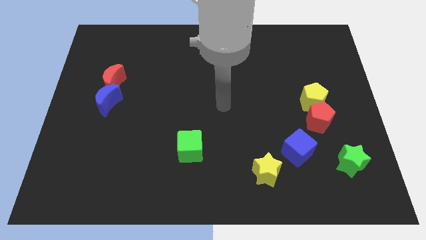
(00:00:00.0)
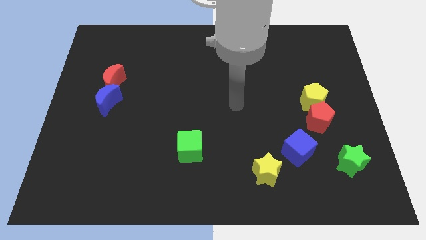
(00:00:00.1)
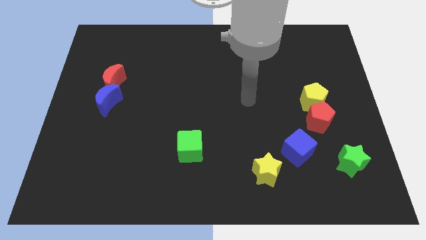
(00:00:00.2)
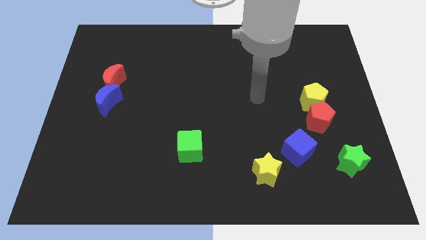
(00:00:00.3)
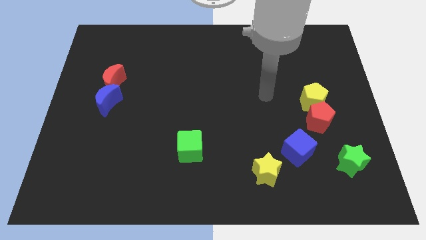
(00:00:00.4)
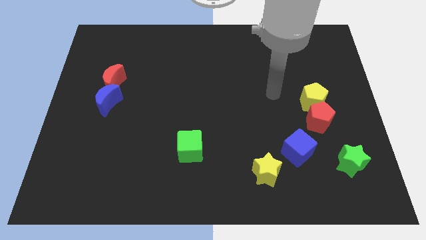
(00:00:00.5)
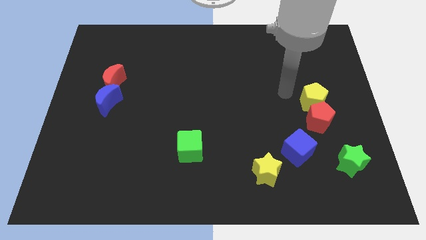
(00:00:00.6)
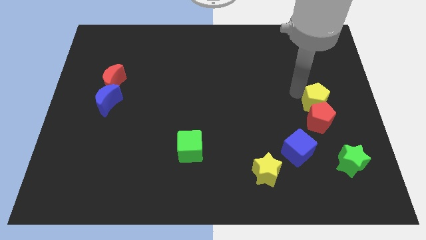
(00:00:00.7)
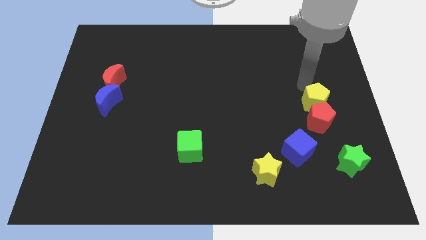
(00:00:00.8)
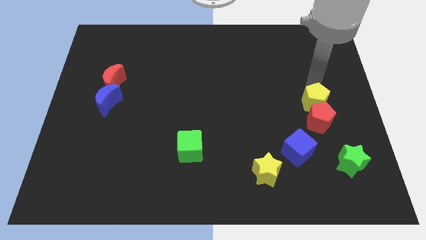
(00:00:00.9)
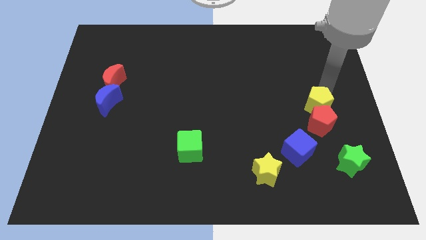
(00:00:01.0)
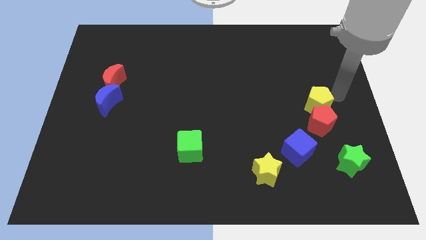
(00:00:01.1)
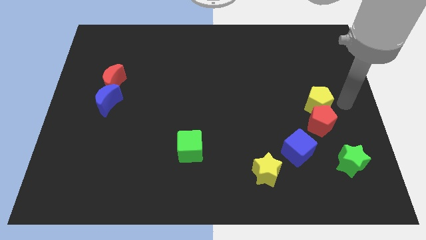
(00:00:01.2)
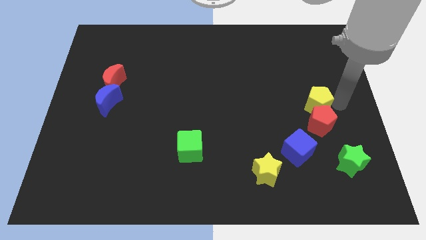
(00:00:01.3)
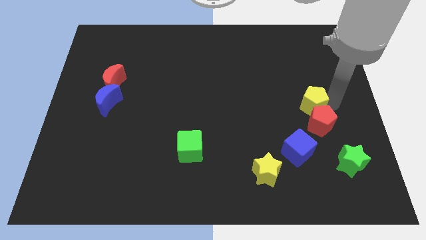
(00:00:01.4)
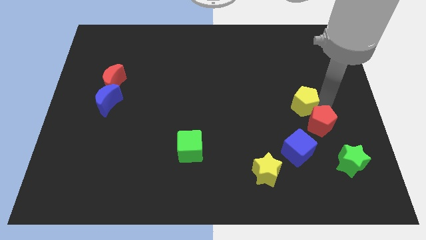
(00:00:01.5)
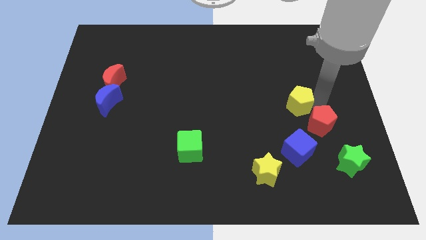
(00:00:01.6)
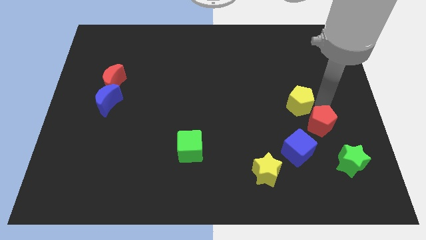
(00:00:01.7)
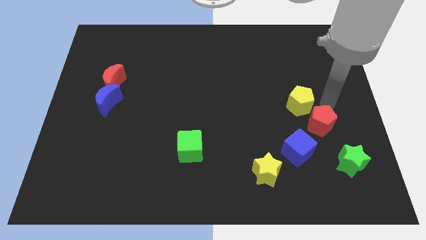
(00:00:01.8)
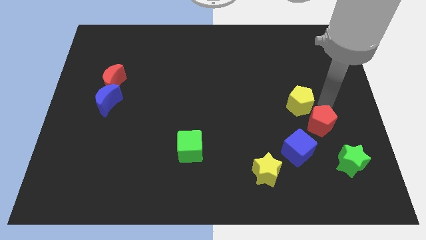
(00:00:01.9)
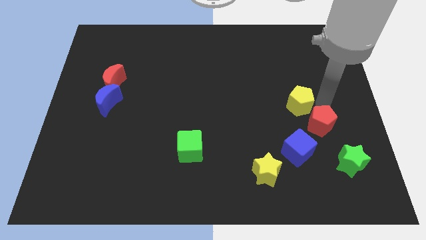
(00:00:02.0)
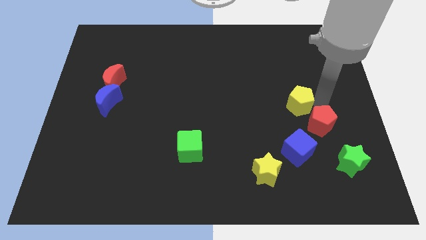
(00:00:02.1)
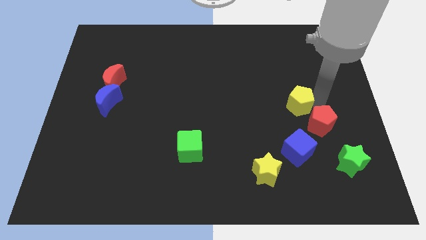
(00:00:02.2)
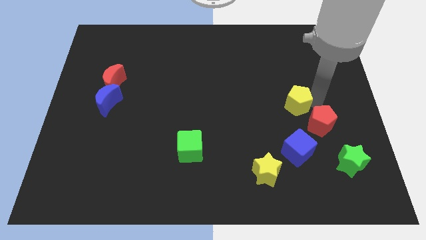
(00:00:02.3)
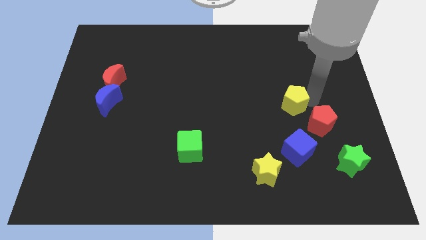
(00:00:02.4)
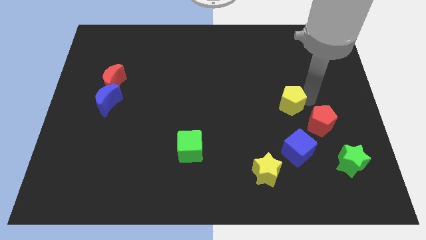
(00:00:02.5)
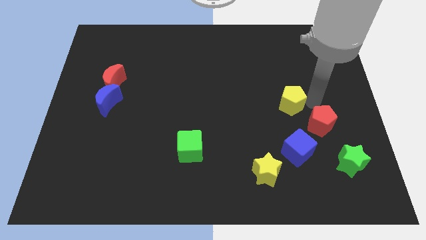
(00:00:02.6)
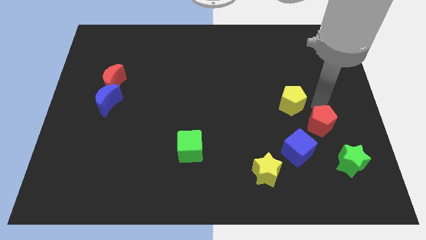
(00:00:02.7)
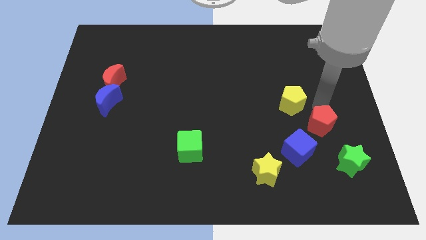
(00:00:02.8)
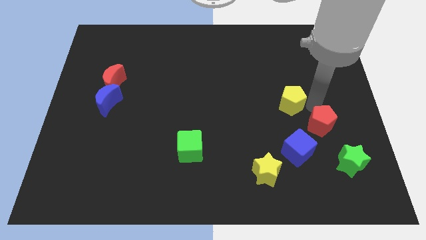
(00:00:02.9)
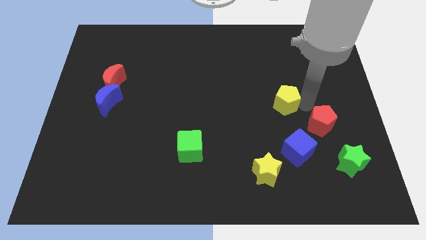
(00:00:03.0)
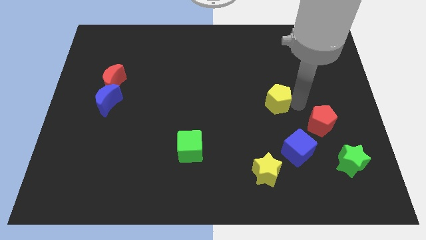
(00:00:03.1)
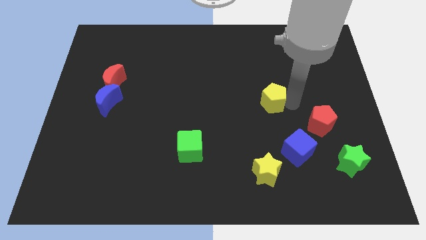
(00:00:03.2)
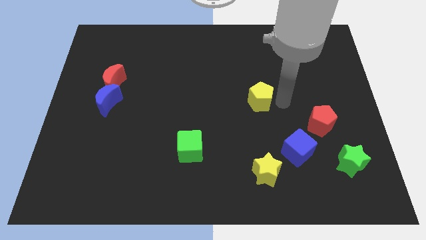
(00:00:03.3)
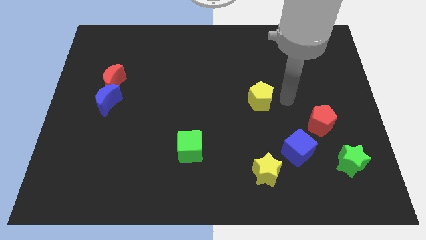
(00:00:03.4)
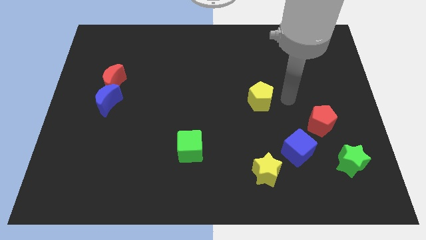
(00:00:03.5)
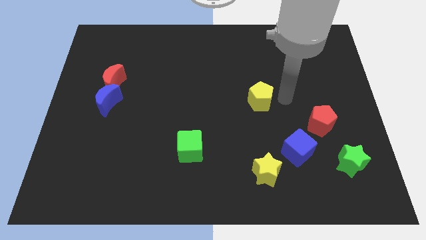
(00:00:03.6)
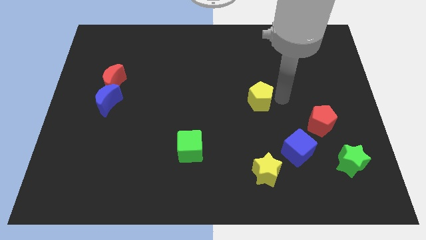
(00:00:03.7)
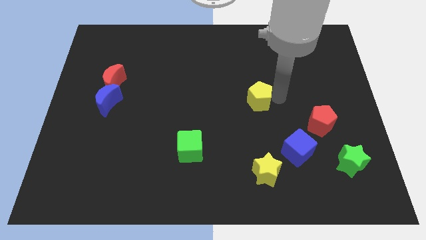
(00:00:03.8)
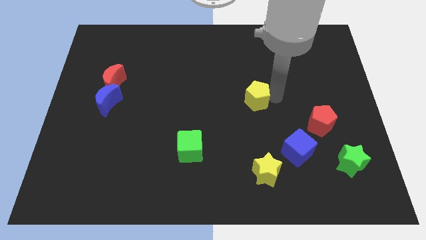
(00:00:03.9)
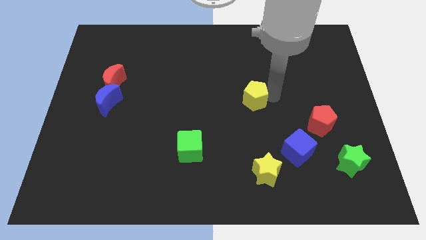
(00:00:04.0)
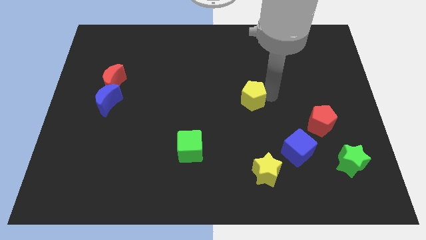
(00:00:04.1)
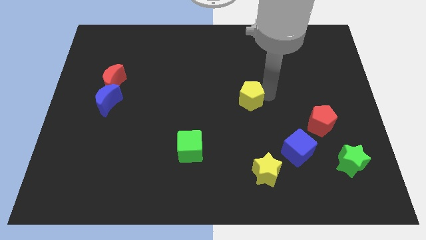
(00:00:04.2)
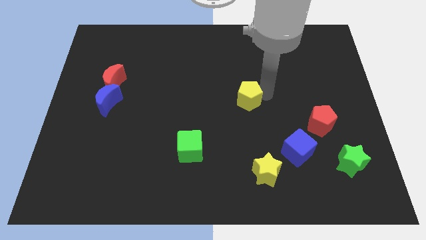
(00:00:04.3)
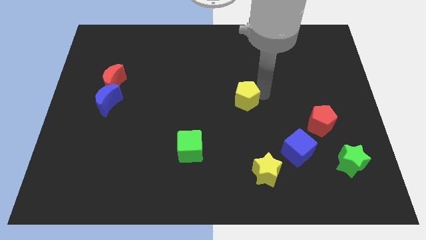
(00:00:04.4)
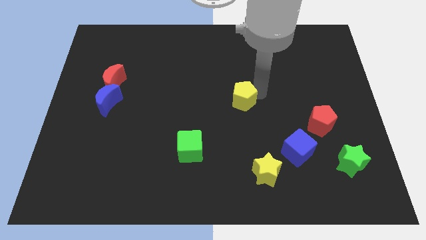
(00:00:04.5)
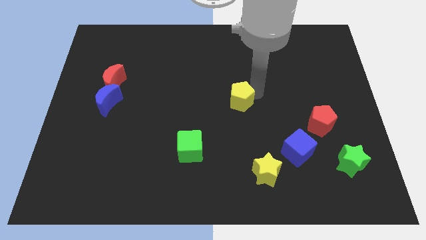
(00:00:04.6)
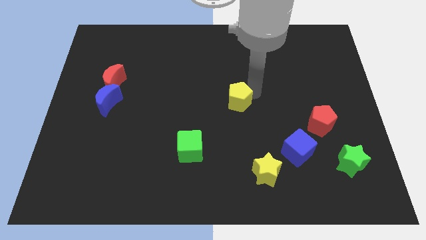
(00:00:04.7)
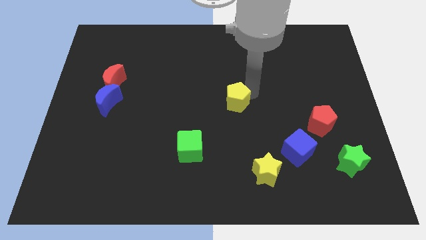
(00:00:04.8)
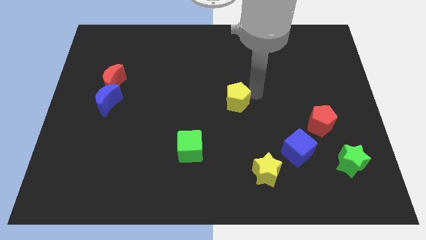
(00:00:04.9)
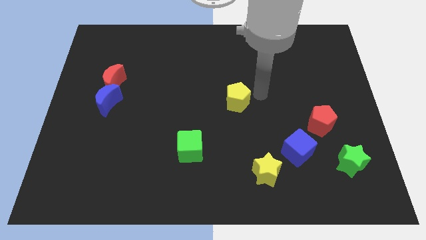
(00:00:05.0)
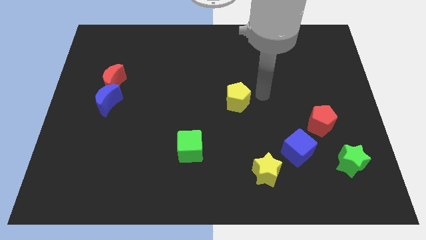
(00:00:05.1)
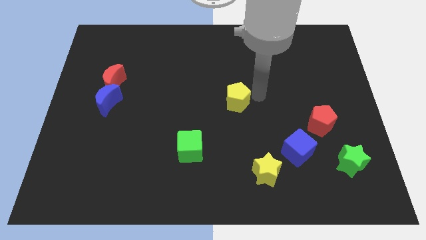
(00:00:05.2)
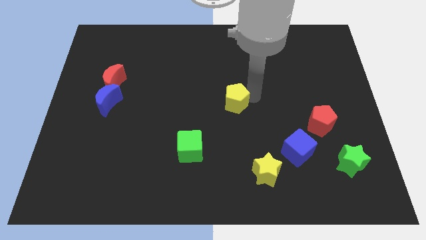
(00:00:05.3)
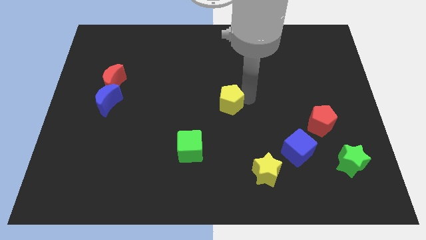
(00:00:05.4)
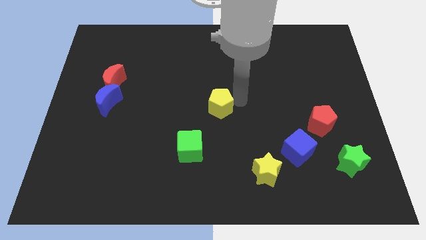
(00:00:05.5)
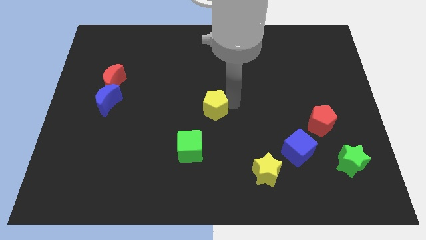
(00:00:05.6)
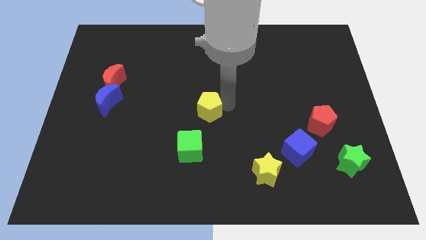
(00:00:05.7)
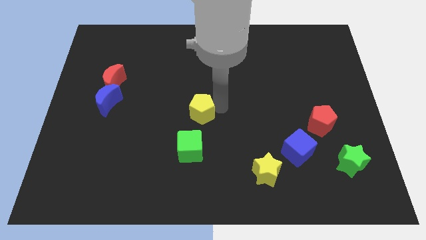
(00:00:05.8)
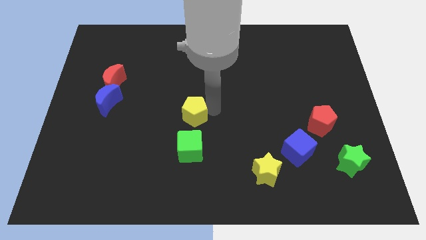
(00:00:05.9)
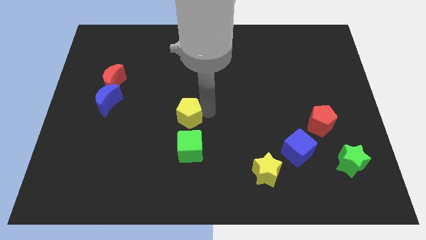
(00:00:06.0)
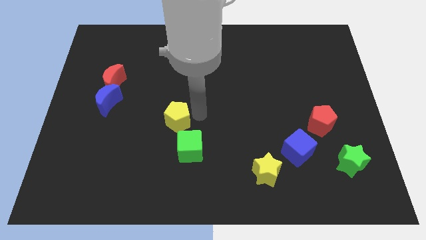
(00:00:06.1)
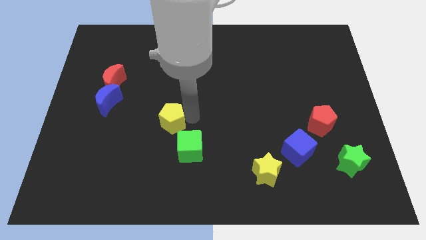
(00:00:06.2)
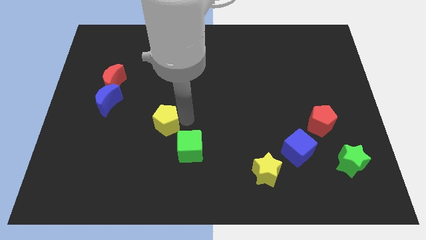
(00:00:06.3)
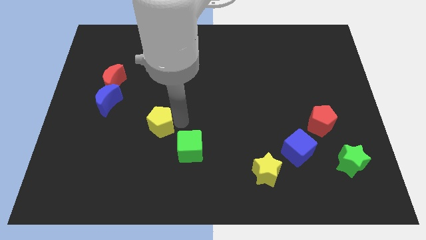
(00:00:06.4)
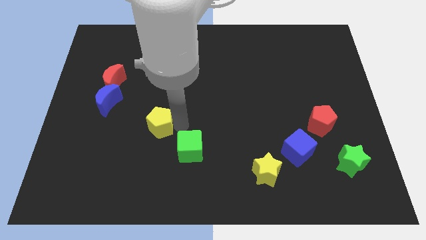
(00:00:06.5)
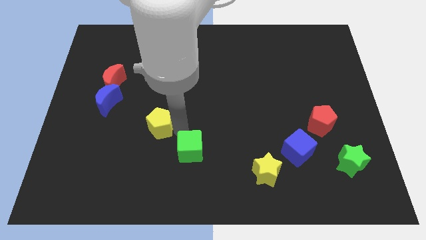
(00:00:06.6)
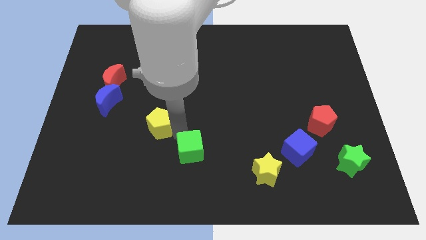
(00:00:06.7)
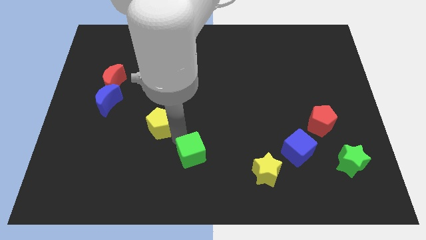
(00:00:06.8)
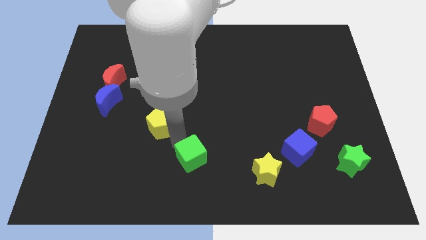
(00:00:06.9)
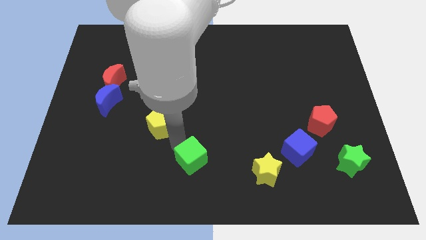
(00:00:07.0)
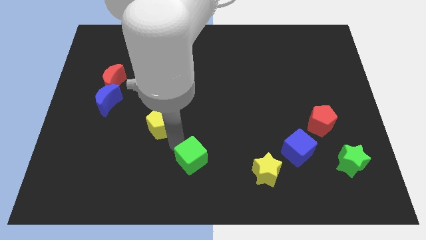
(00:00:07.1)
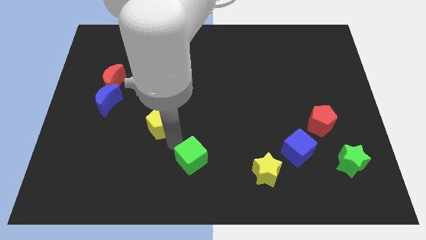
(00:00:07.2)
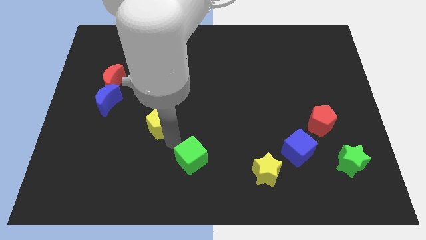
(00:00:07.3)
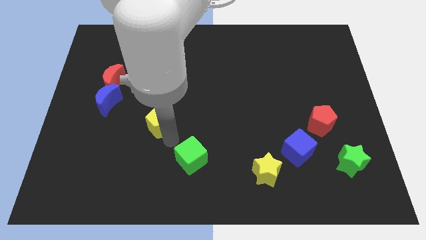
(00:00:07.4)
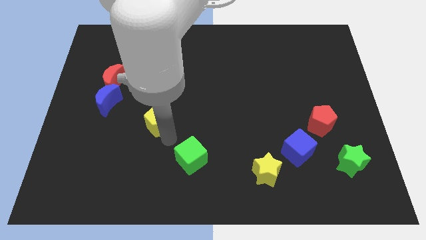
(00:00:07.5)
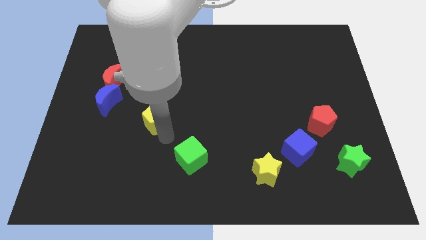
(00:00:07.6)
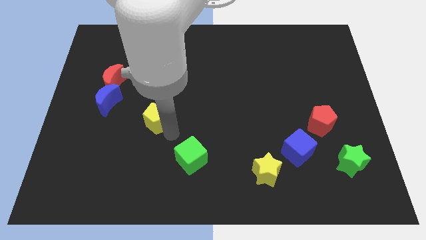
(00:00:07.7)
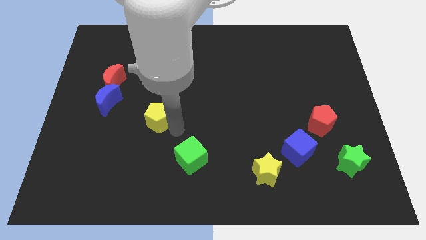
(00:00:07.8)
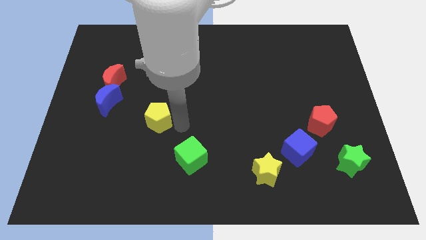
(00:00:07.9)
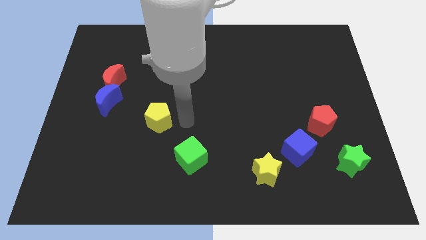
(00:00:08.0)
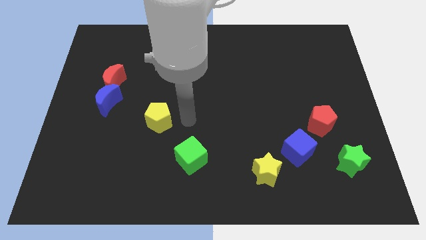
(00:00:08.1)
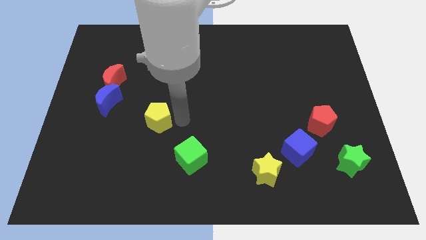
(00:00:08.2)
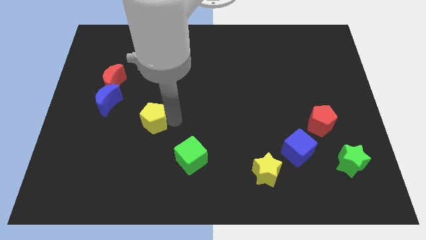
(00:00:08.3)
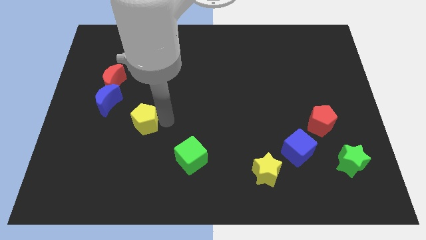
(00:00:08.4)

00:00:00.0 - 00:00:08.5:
push the yellow pentagon to the bottom right side of the blue moon
